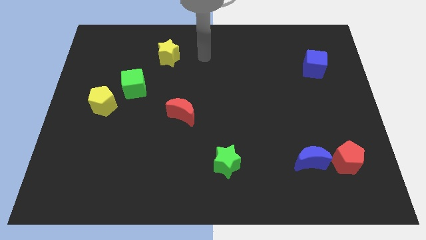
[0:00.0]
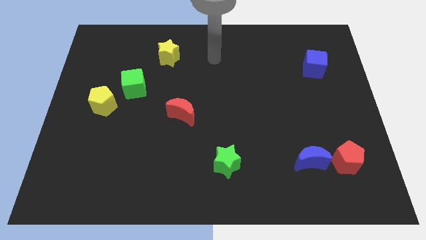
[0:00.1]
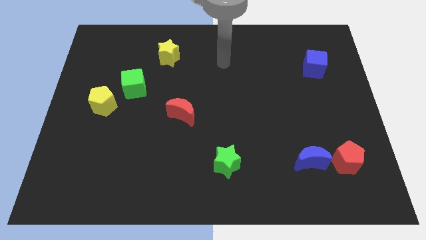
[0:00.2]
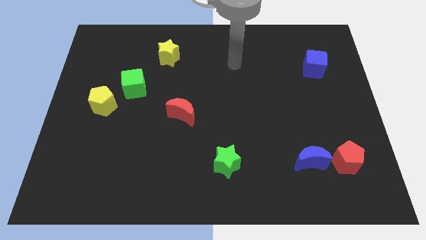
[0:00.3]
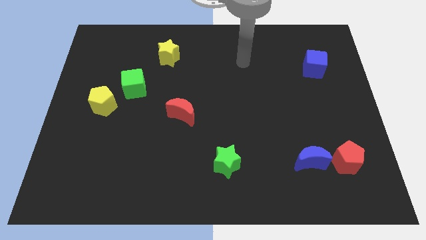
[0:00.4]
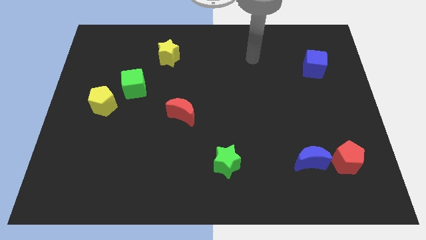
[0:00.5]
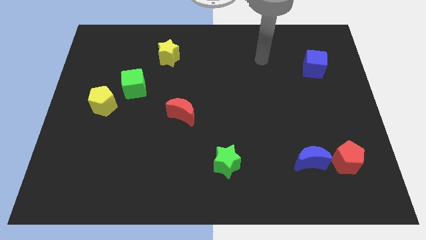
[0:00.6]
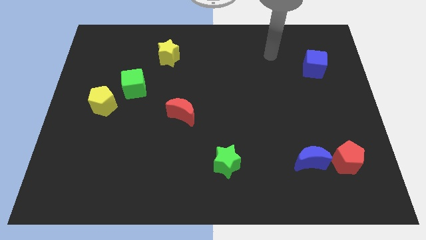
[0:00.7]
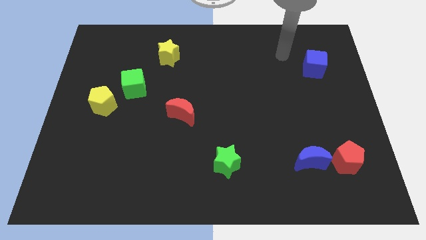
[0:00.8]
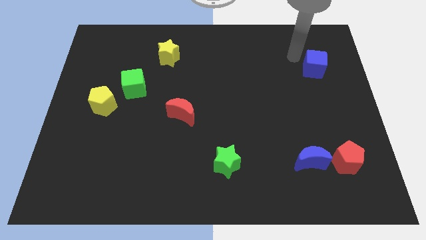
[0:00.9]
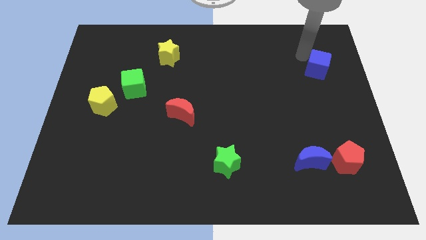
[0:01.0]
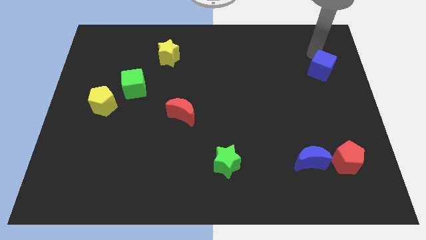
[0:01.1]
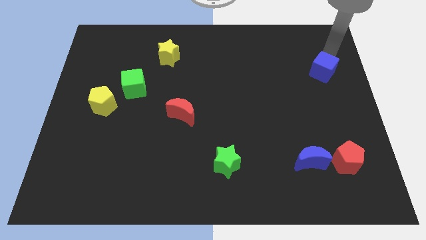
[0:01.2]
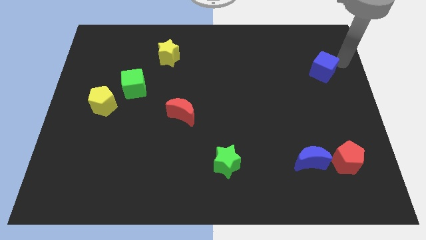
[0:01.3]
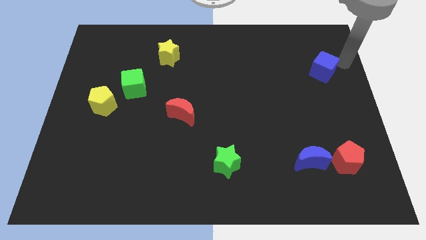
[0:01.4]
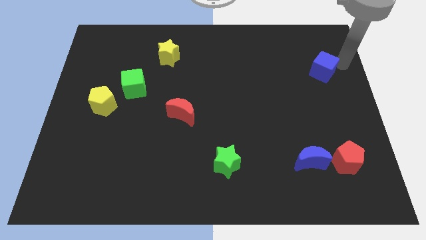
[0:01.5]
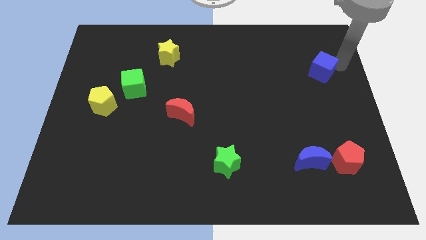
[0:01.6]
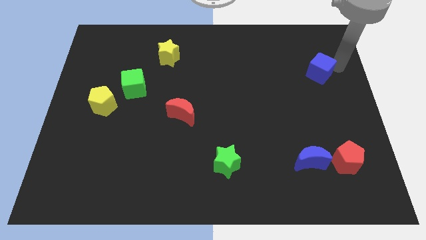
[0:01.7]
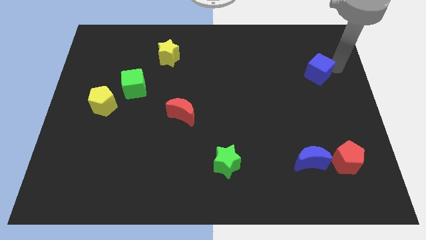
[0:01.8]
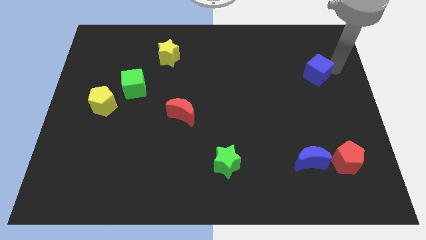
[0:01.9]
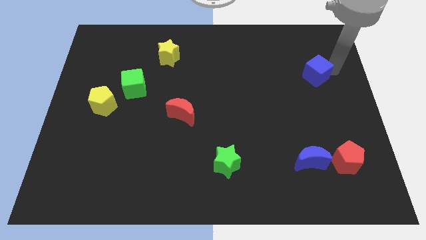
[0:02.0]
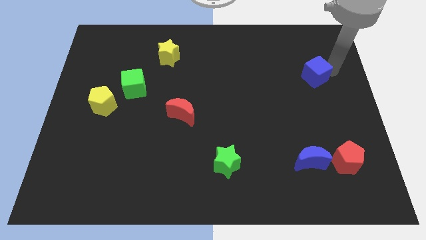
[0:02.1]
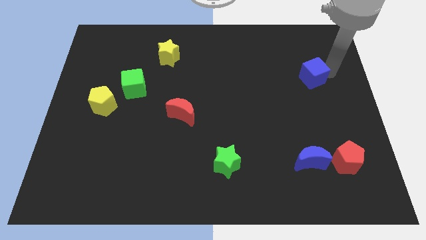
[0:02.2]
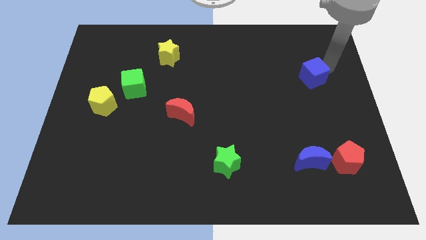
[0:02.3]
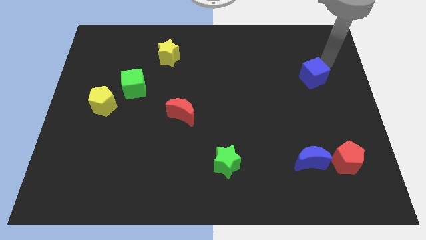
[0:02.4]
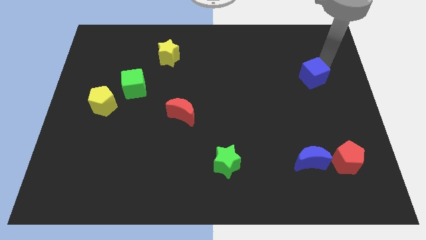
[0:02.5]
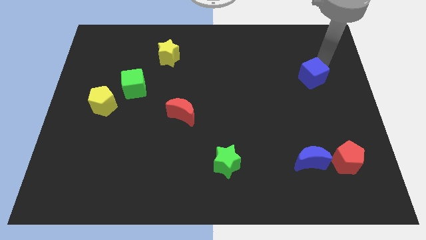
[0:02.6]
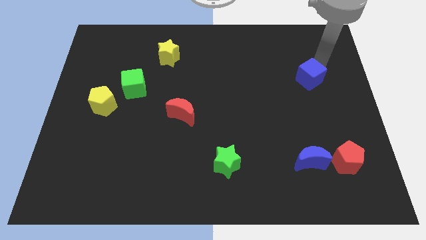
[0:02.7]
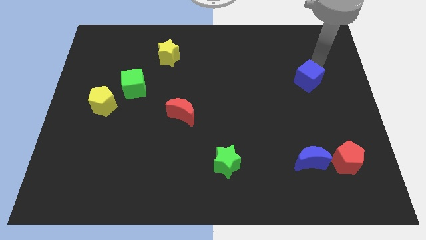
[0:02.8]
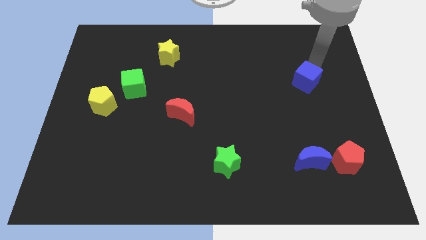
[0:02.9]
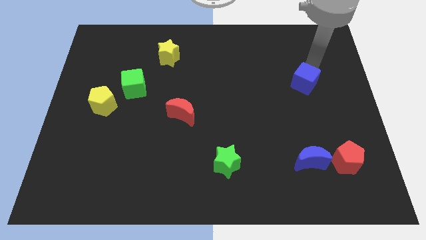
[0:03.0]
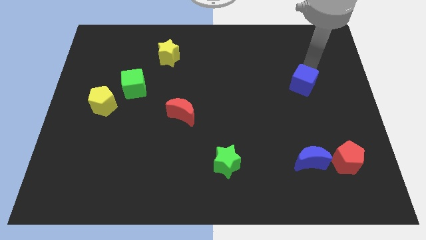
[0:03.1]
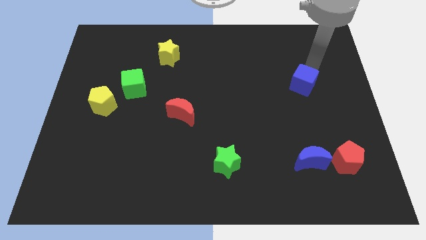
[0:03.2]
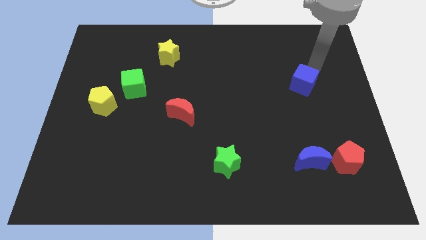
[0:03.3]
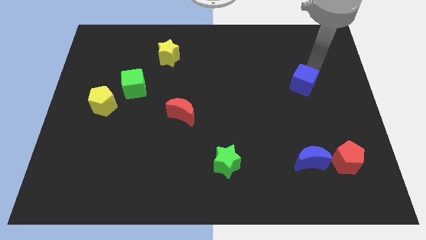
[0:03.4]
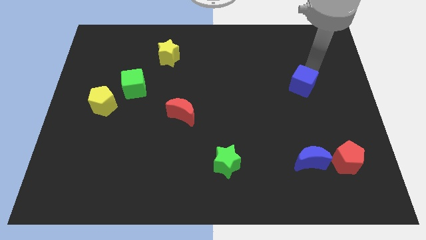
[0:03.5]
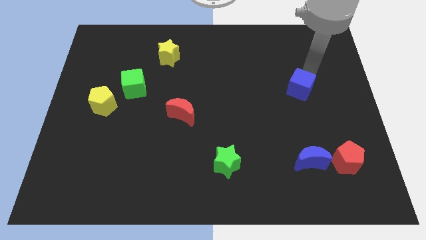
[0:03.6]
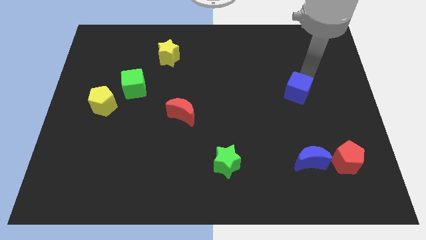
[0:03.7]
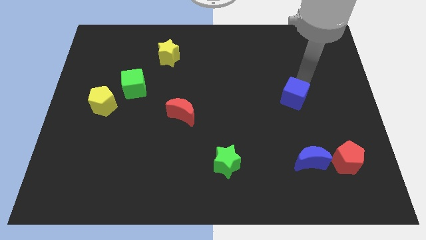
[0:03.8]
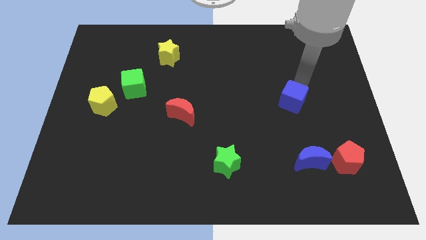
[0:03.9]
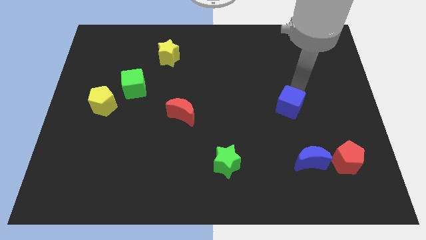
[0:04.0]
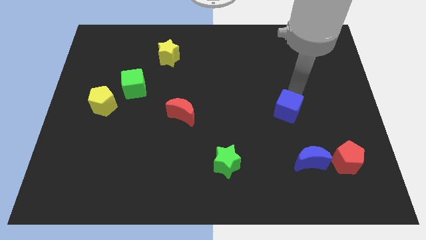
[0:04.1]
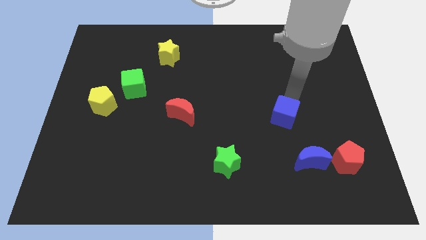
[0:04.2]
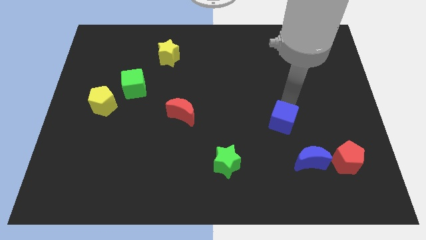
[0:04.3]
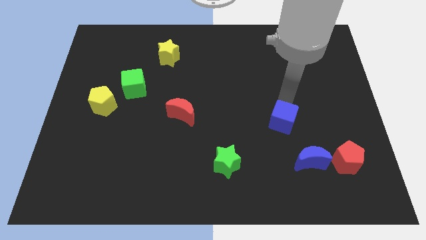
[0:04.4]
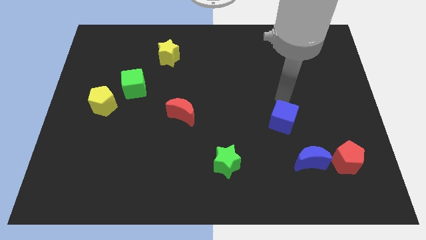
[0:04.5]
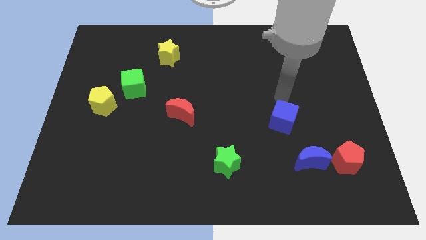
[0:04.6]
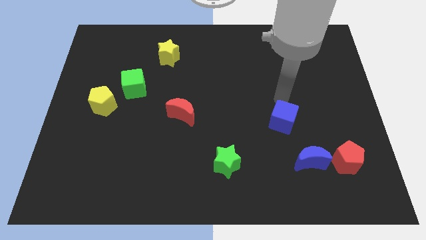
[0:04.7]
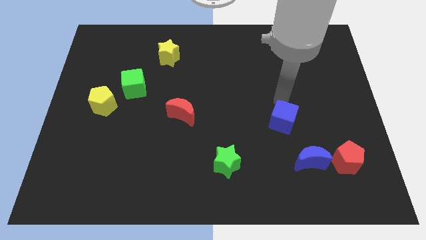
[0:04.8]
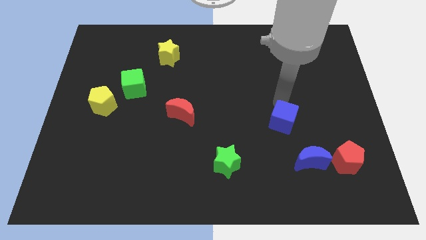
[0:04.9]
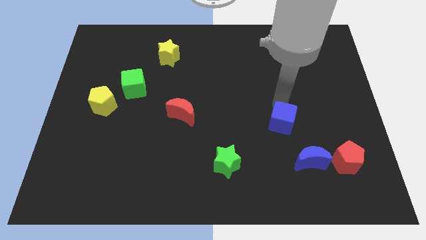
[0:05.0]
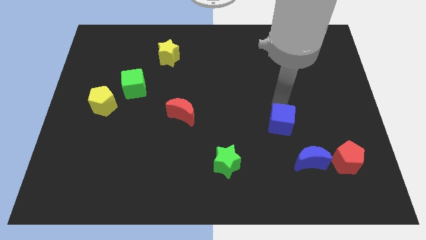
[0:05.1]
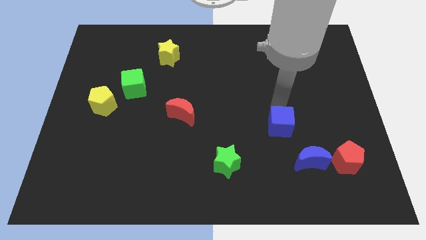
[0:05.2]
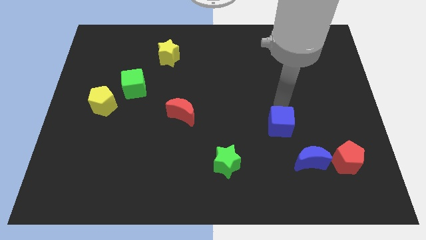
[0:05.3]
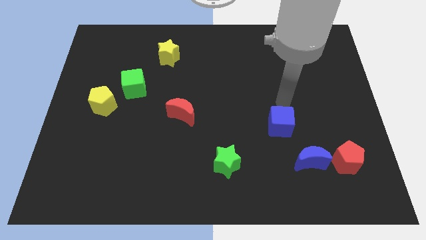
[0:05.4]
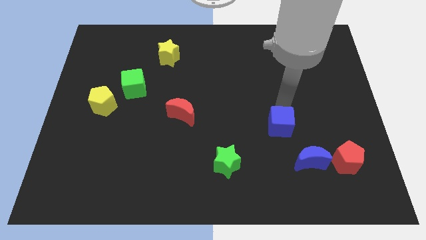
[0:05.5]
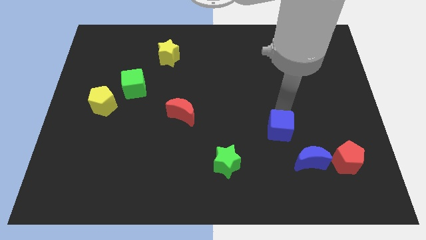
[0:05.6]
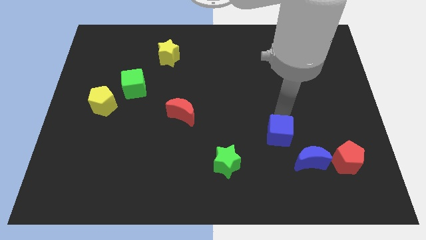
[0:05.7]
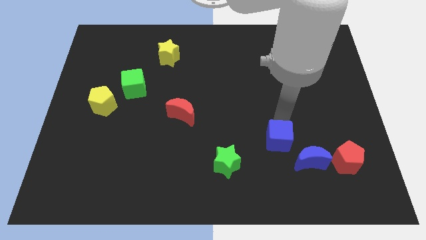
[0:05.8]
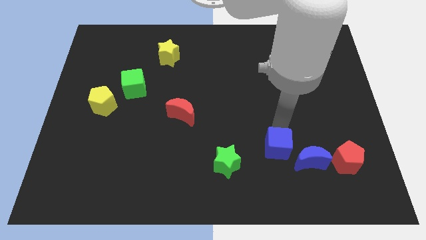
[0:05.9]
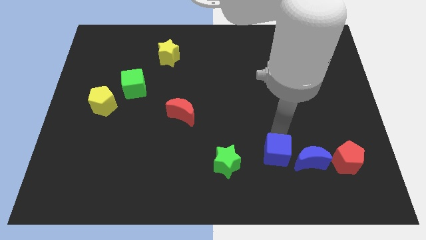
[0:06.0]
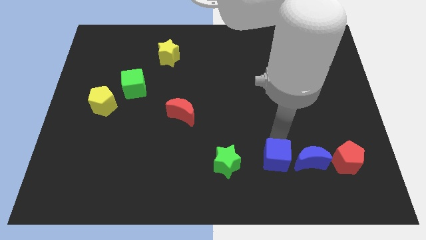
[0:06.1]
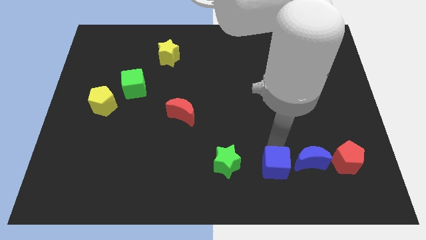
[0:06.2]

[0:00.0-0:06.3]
put the blue cube to the bottom left of the blue moon
